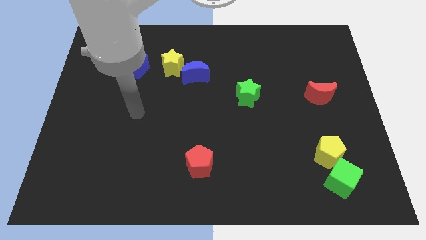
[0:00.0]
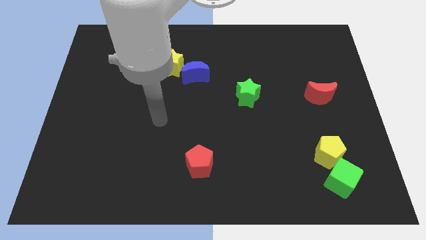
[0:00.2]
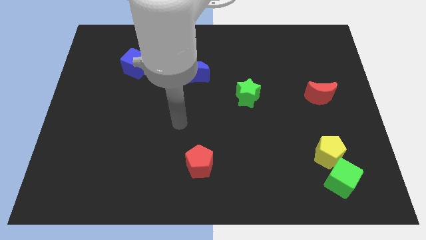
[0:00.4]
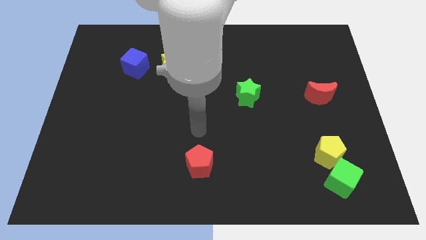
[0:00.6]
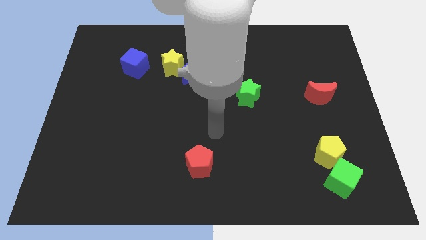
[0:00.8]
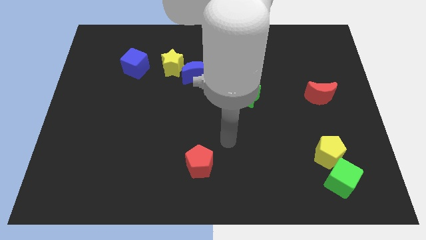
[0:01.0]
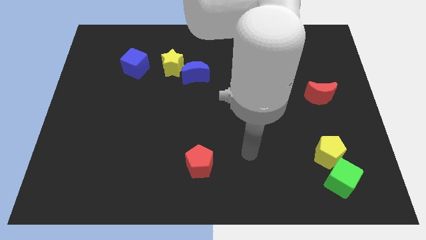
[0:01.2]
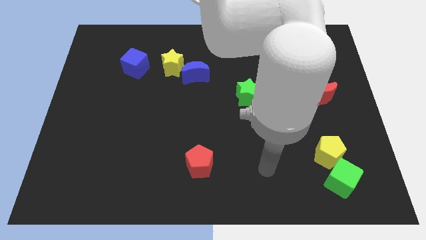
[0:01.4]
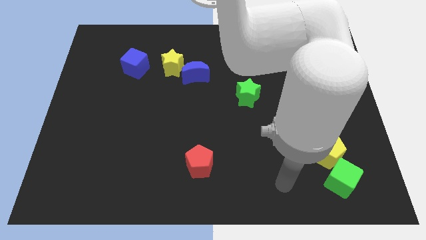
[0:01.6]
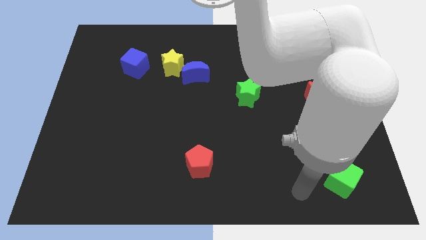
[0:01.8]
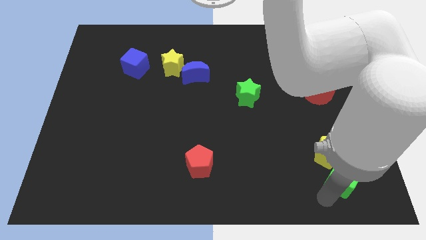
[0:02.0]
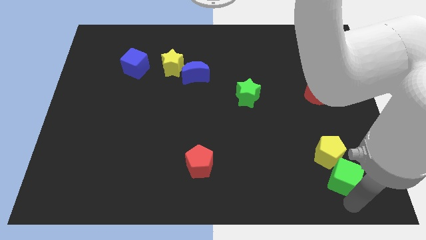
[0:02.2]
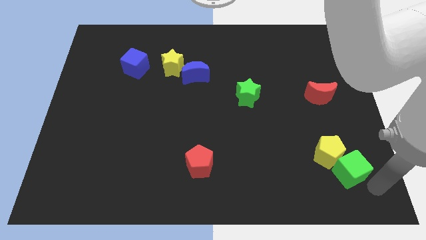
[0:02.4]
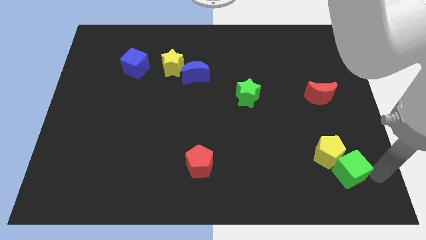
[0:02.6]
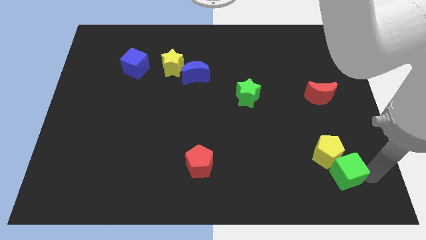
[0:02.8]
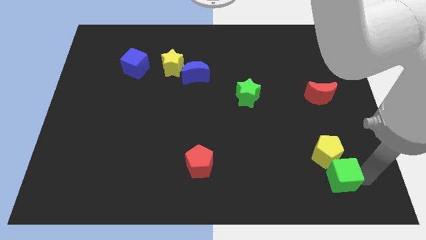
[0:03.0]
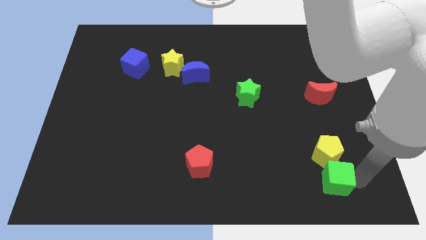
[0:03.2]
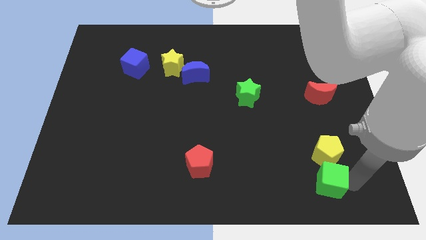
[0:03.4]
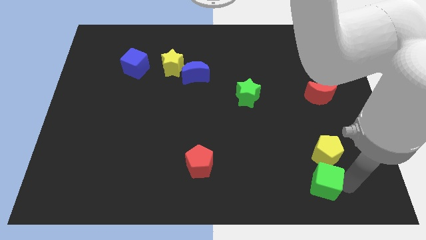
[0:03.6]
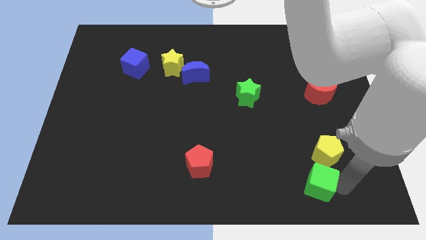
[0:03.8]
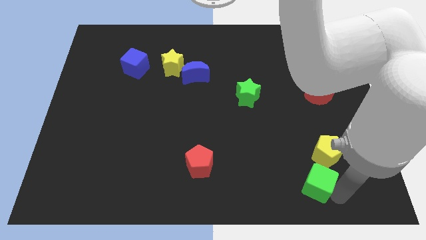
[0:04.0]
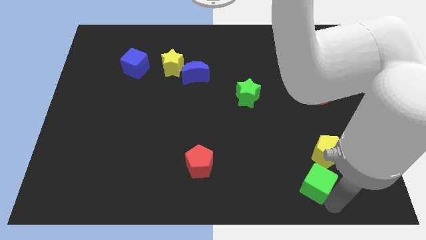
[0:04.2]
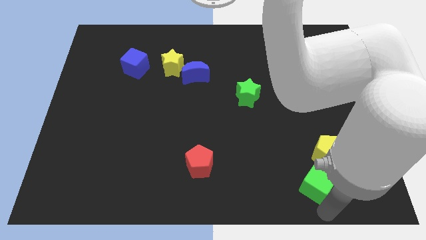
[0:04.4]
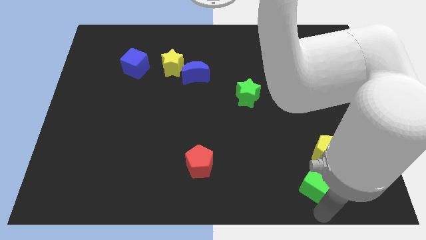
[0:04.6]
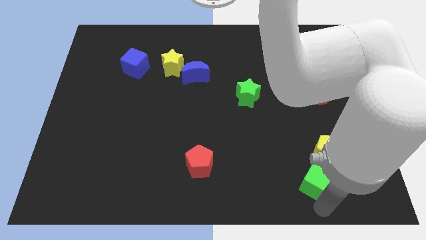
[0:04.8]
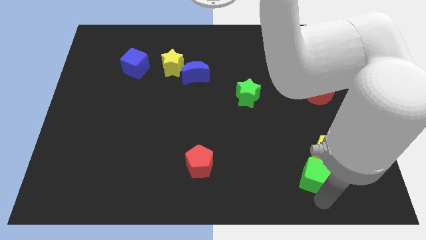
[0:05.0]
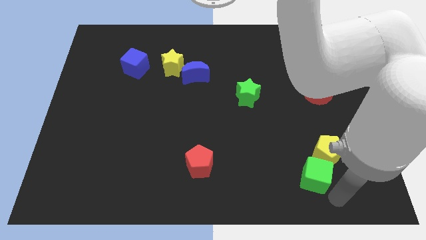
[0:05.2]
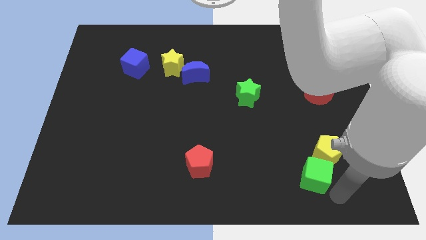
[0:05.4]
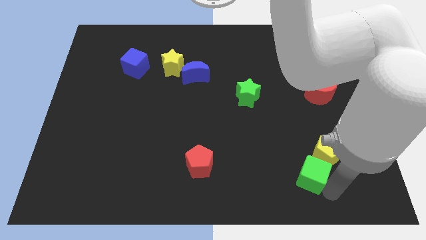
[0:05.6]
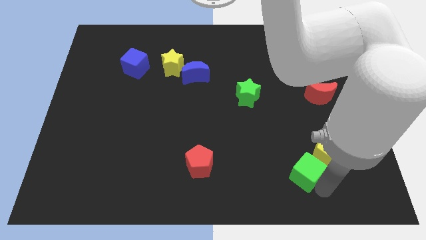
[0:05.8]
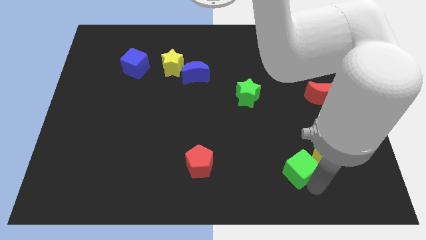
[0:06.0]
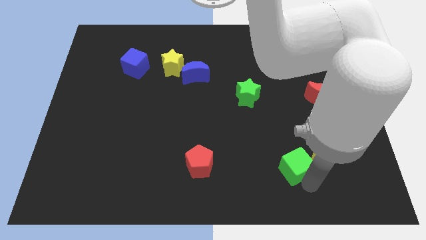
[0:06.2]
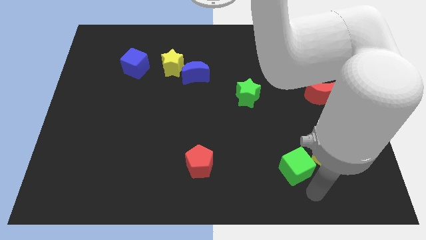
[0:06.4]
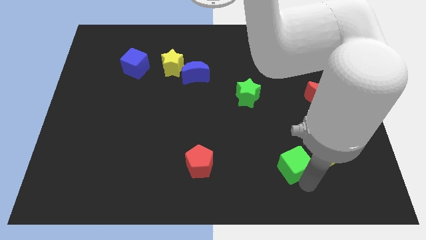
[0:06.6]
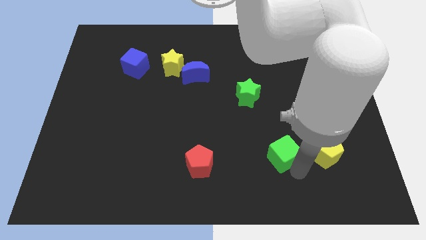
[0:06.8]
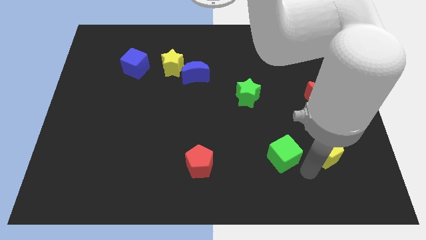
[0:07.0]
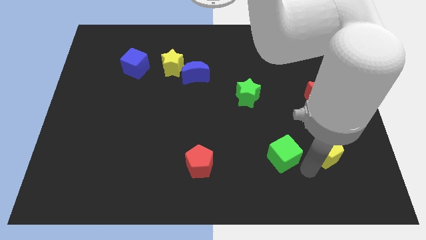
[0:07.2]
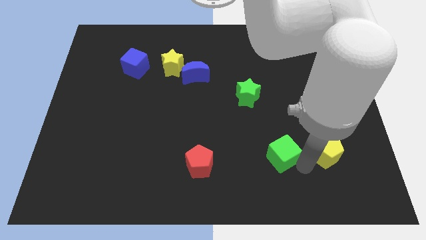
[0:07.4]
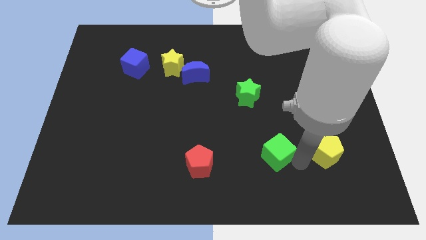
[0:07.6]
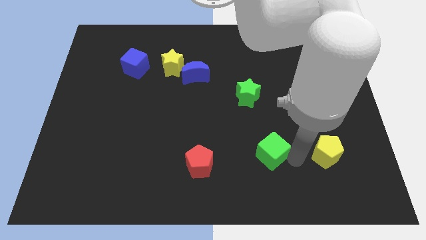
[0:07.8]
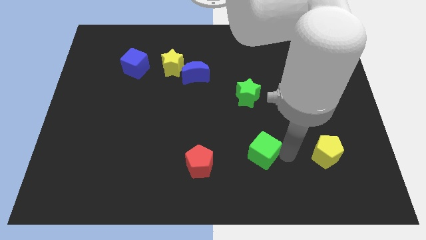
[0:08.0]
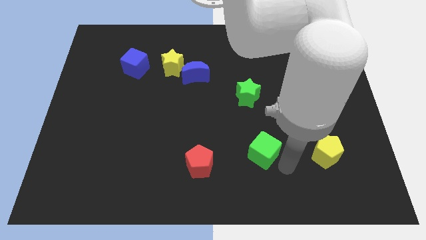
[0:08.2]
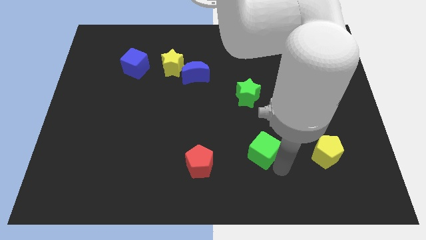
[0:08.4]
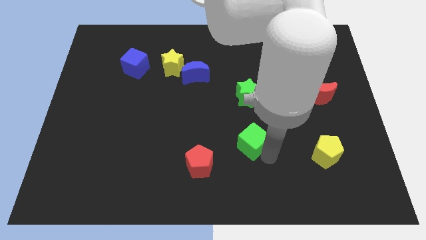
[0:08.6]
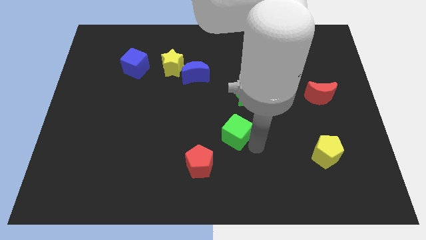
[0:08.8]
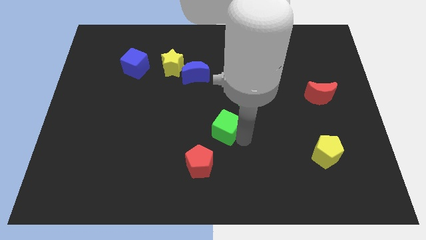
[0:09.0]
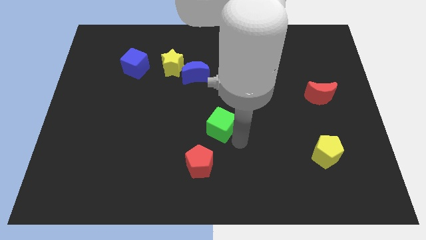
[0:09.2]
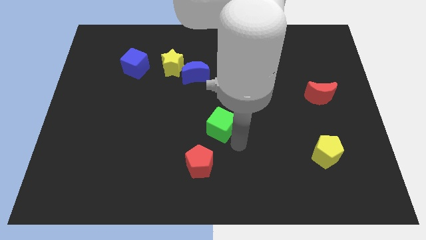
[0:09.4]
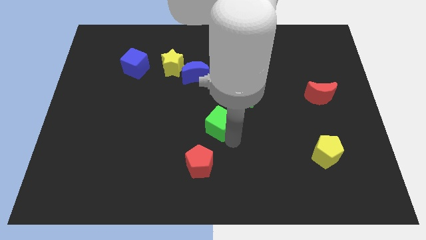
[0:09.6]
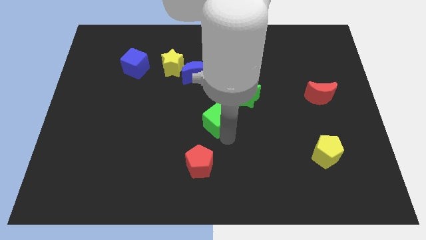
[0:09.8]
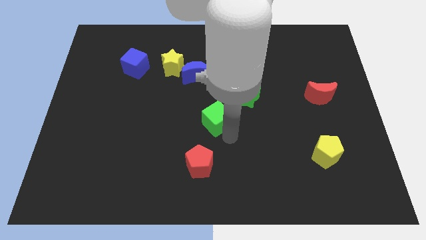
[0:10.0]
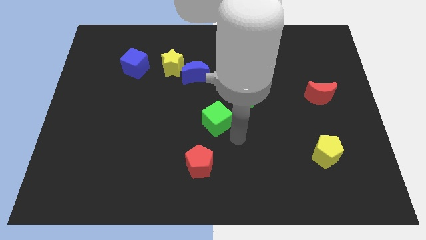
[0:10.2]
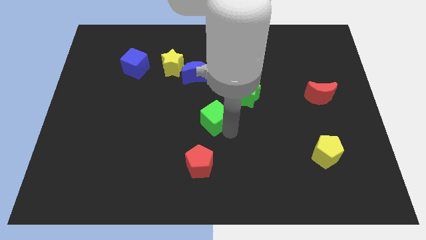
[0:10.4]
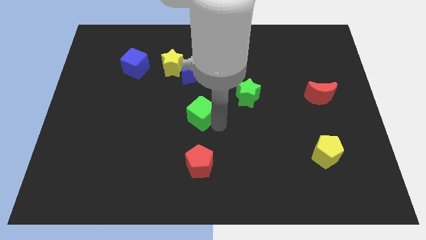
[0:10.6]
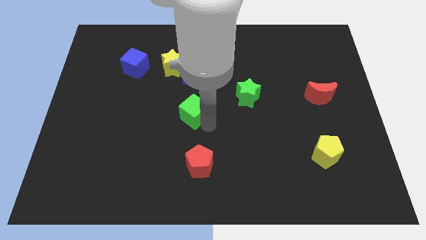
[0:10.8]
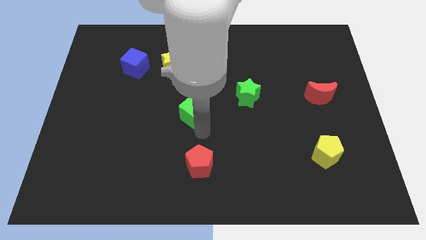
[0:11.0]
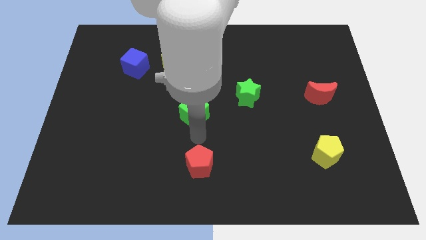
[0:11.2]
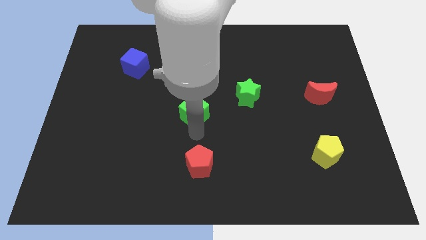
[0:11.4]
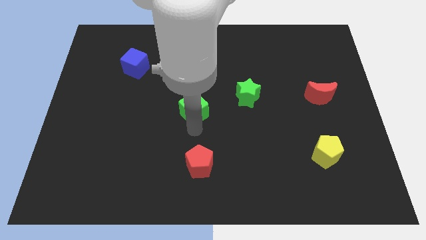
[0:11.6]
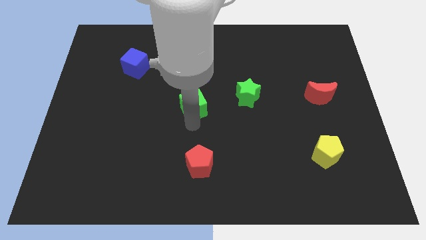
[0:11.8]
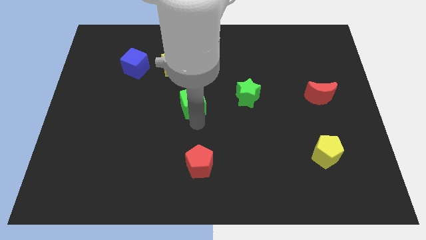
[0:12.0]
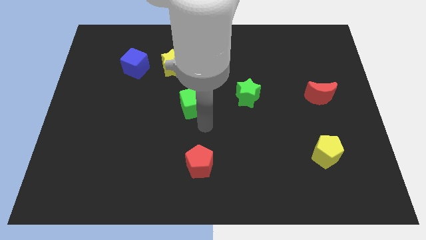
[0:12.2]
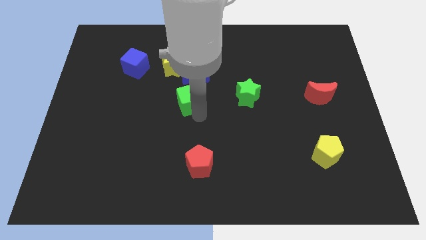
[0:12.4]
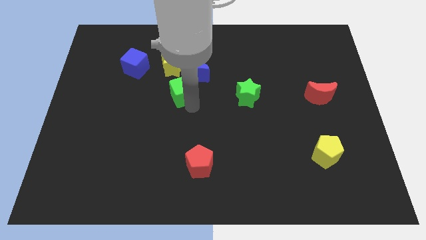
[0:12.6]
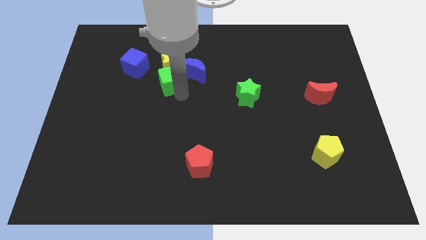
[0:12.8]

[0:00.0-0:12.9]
push the green cube close to the yellow star
